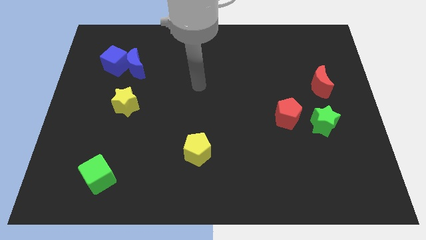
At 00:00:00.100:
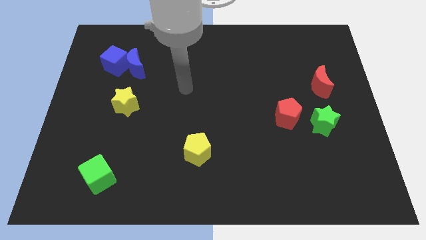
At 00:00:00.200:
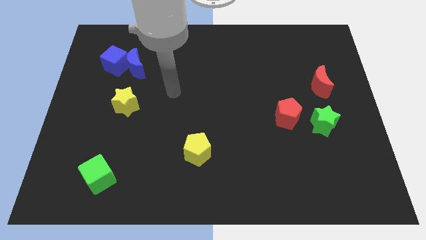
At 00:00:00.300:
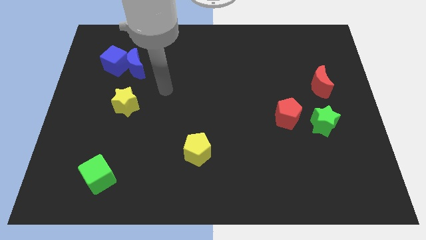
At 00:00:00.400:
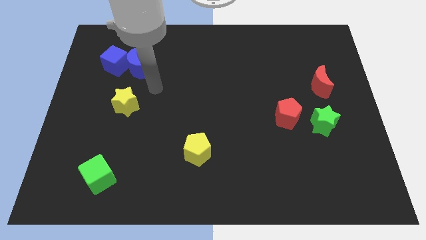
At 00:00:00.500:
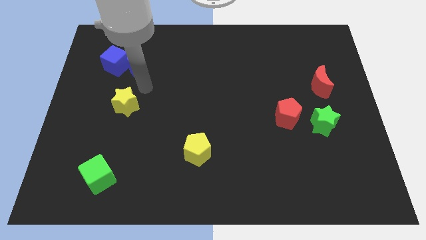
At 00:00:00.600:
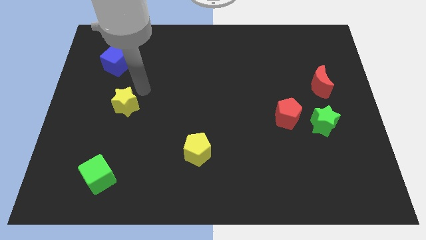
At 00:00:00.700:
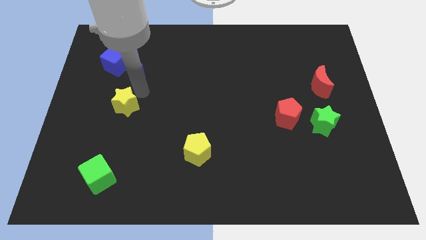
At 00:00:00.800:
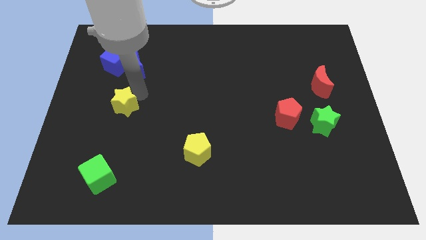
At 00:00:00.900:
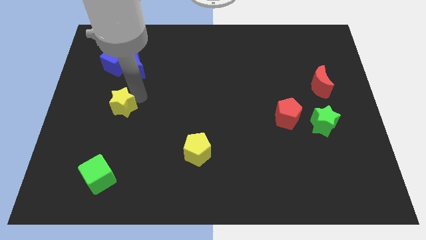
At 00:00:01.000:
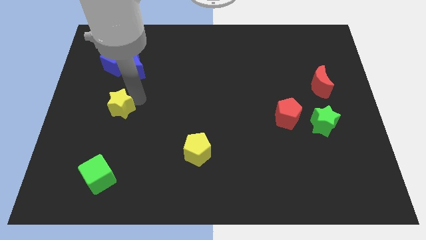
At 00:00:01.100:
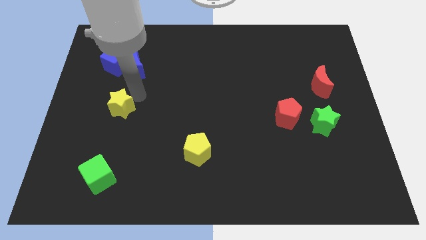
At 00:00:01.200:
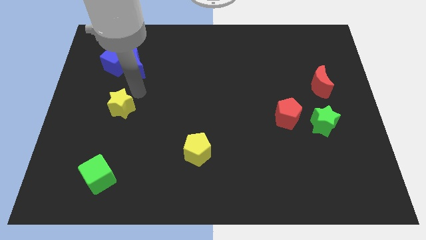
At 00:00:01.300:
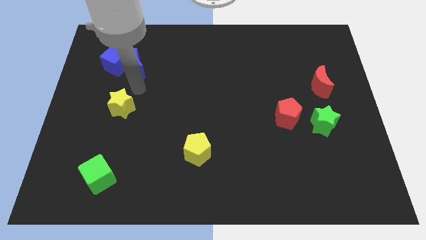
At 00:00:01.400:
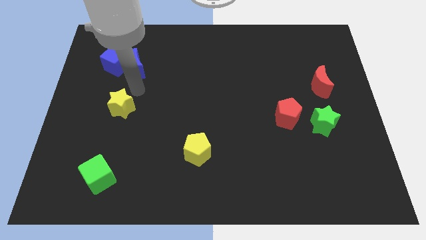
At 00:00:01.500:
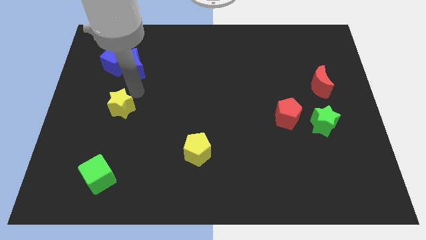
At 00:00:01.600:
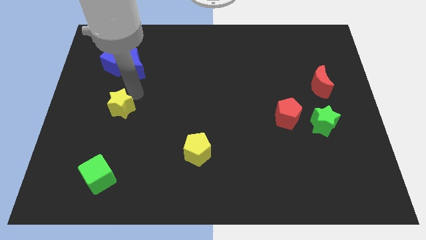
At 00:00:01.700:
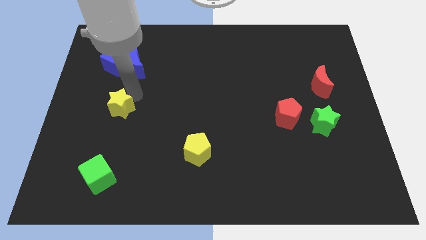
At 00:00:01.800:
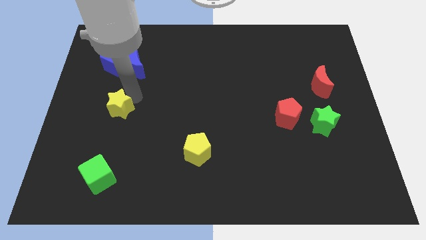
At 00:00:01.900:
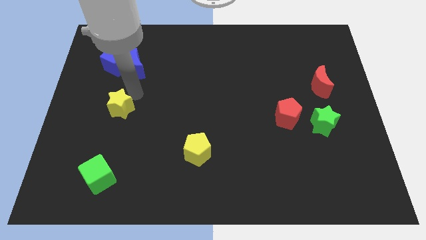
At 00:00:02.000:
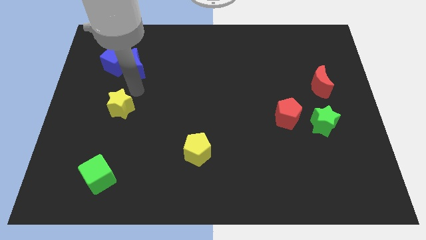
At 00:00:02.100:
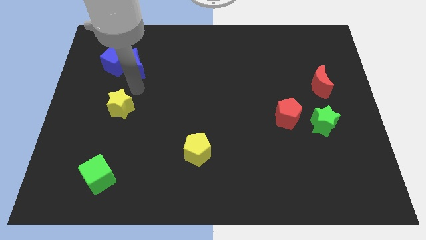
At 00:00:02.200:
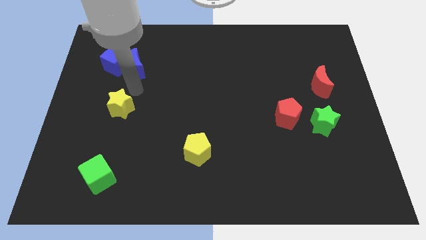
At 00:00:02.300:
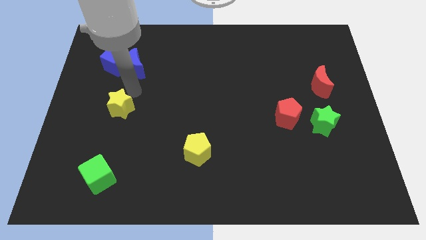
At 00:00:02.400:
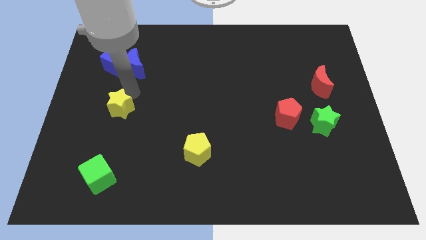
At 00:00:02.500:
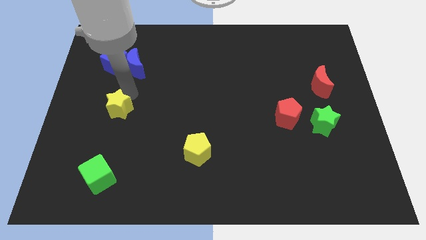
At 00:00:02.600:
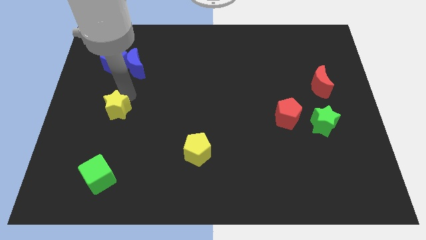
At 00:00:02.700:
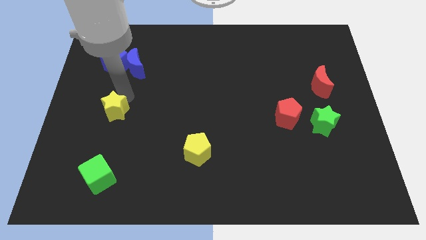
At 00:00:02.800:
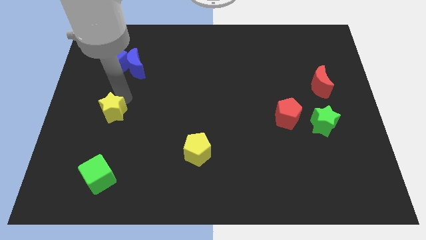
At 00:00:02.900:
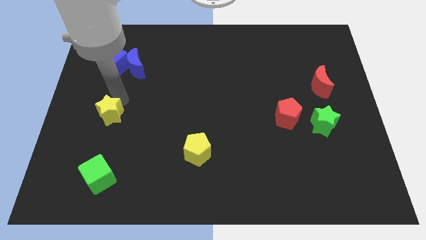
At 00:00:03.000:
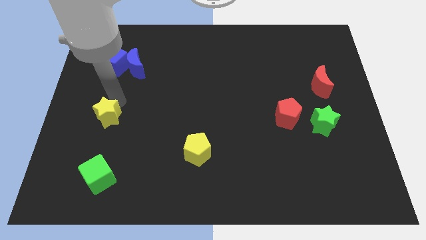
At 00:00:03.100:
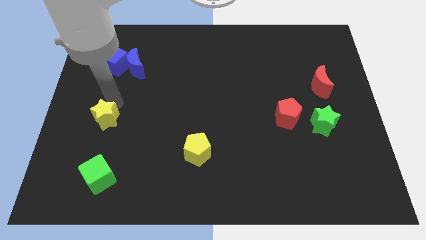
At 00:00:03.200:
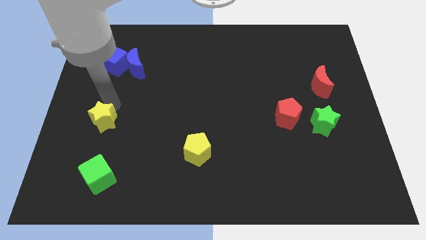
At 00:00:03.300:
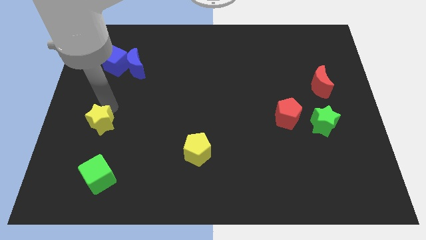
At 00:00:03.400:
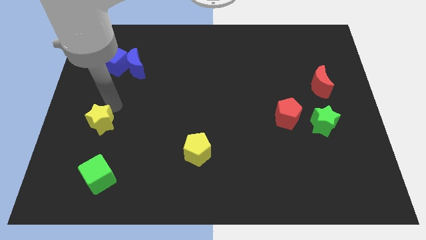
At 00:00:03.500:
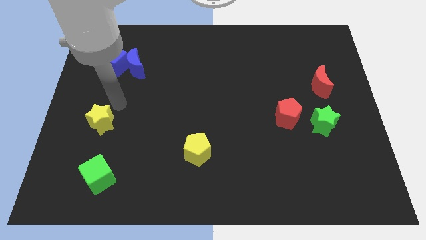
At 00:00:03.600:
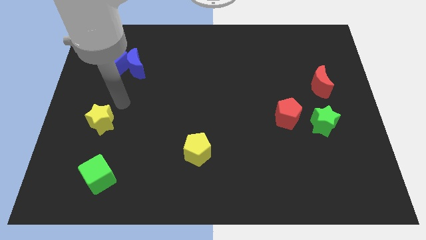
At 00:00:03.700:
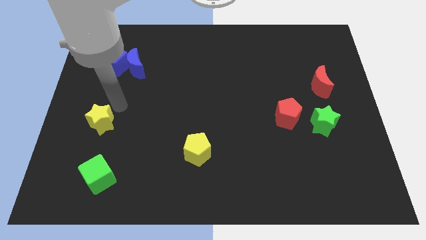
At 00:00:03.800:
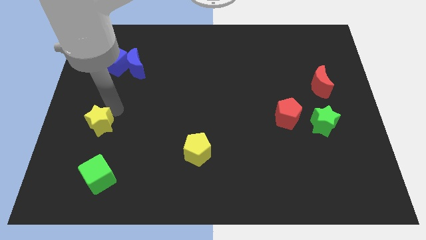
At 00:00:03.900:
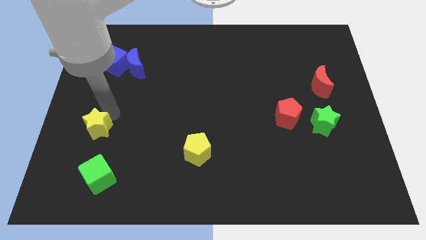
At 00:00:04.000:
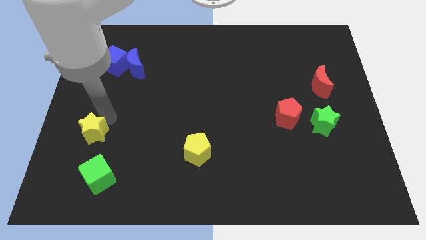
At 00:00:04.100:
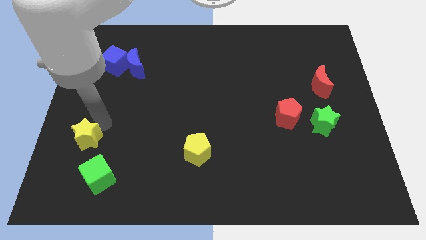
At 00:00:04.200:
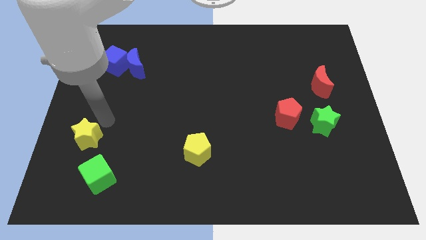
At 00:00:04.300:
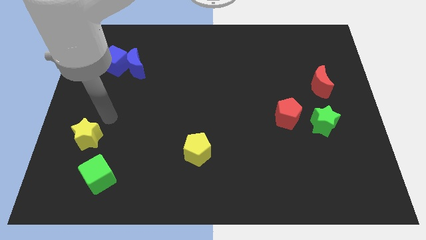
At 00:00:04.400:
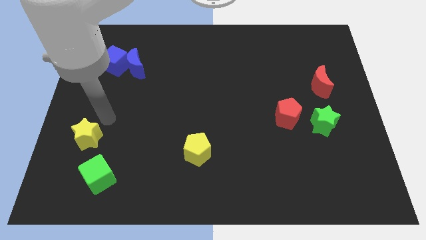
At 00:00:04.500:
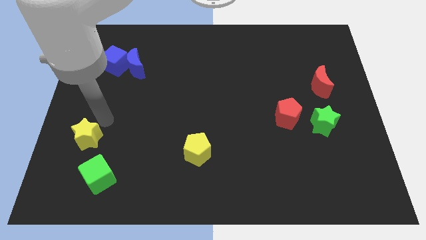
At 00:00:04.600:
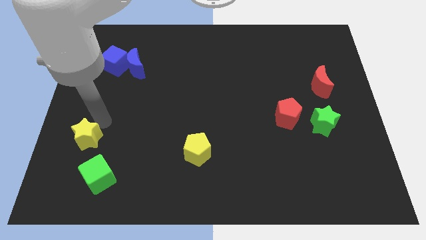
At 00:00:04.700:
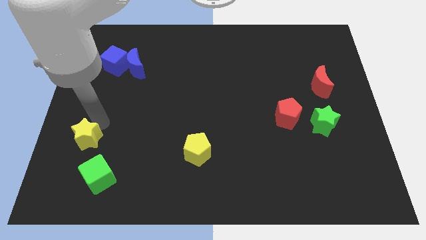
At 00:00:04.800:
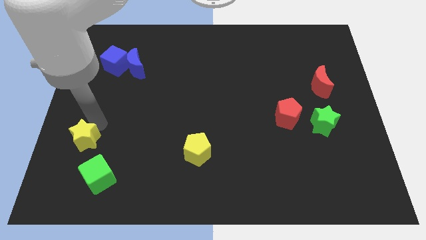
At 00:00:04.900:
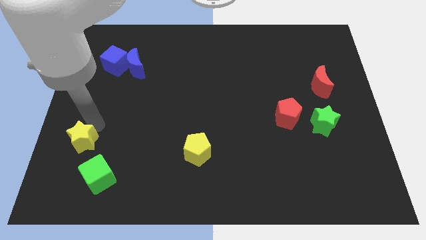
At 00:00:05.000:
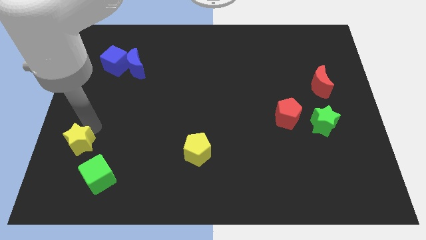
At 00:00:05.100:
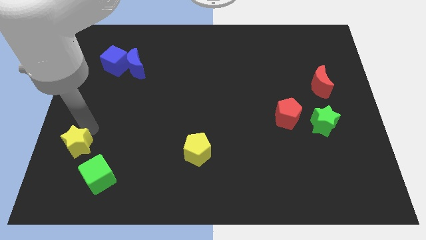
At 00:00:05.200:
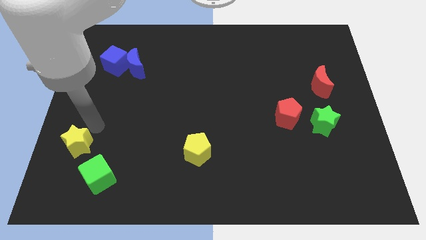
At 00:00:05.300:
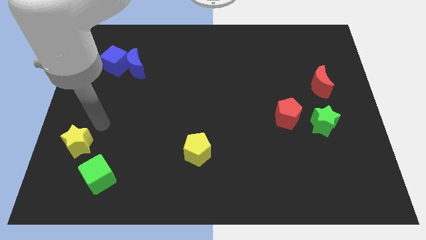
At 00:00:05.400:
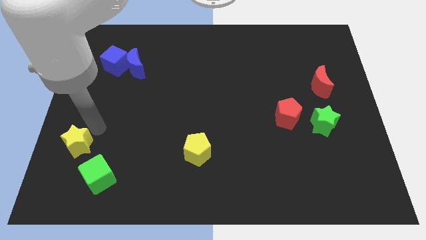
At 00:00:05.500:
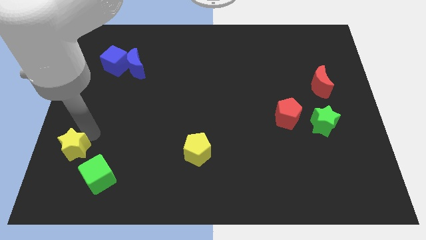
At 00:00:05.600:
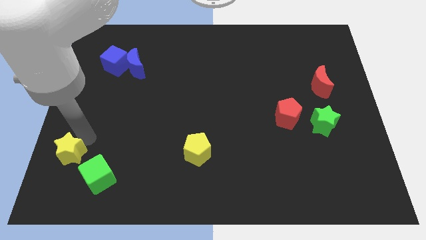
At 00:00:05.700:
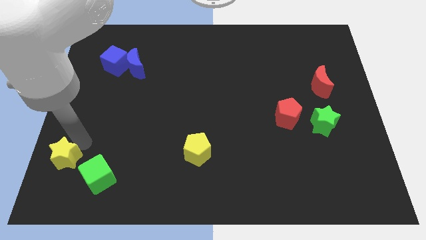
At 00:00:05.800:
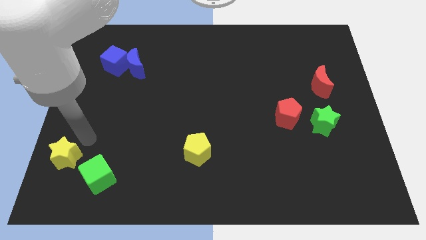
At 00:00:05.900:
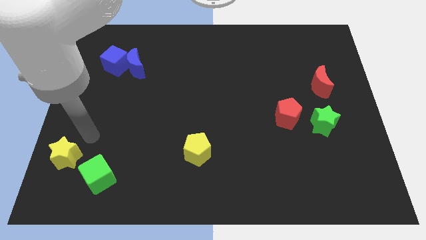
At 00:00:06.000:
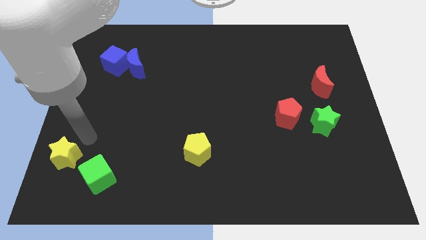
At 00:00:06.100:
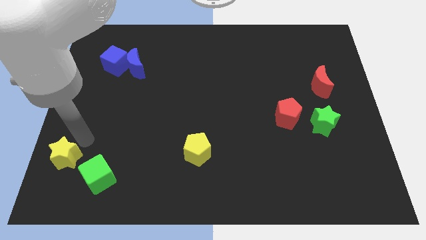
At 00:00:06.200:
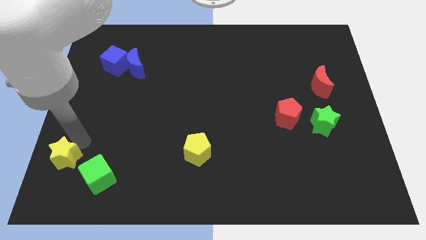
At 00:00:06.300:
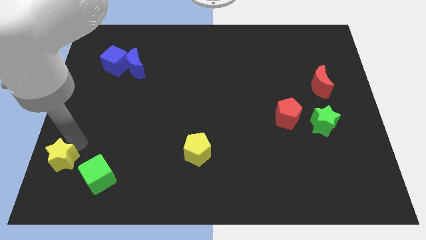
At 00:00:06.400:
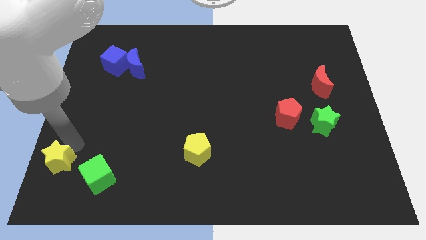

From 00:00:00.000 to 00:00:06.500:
put the yellow star to the bottom left corner

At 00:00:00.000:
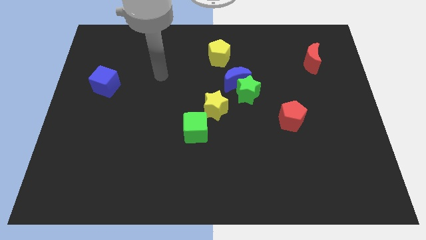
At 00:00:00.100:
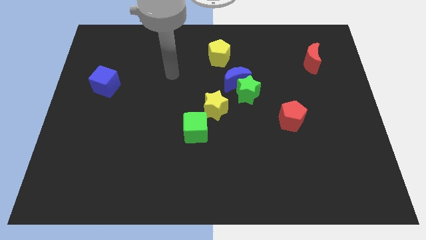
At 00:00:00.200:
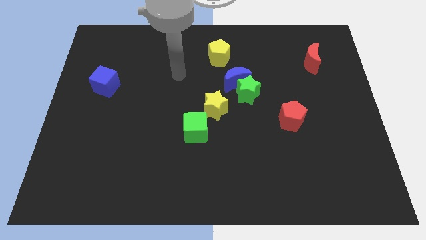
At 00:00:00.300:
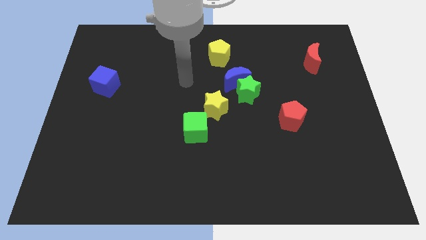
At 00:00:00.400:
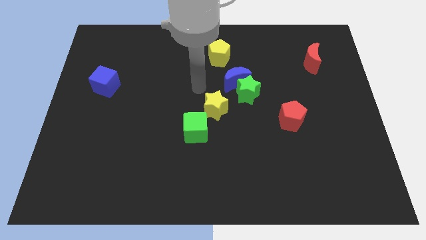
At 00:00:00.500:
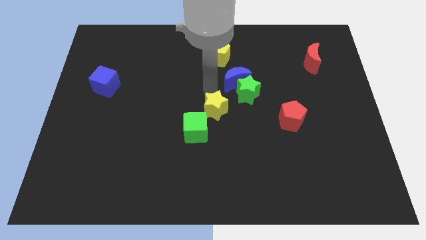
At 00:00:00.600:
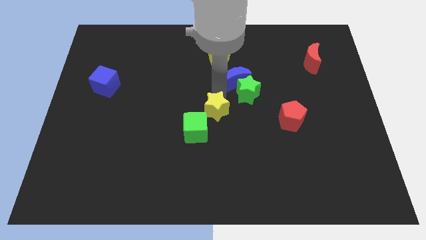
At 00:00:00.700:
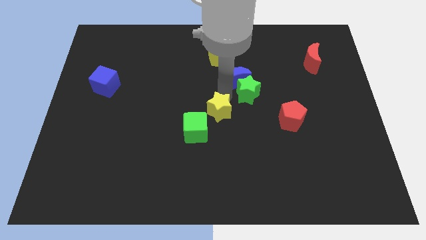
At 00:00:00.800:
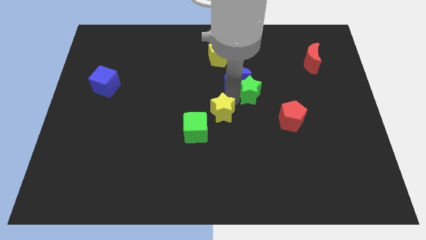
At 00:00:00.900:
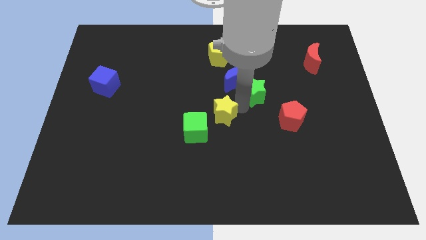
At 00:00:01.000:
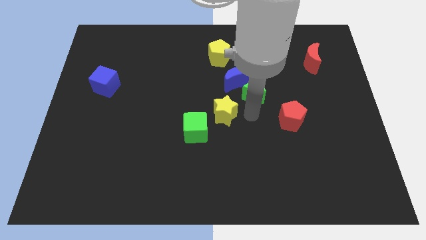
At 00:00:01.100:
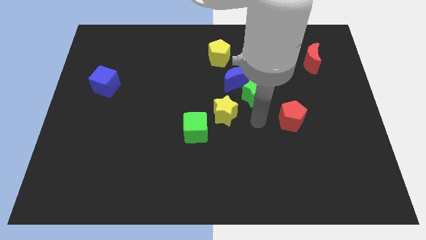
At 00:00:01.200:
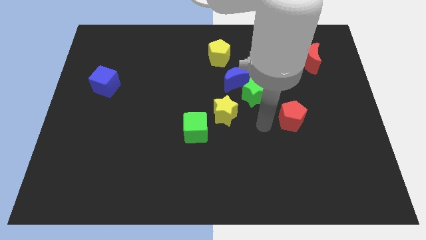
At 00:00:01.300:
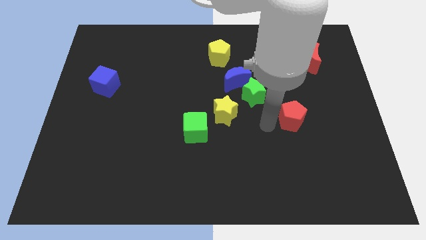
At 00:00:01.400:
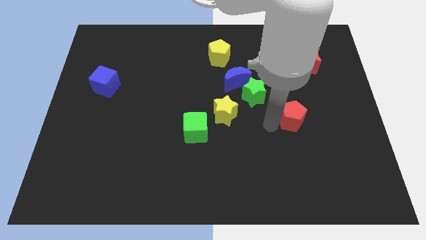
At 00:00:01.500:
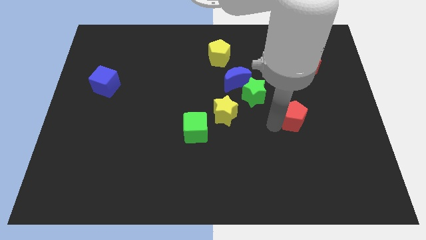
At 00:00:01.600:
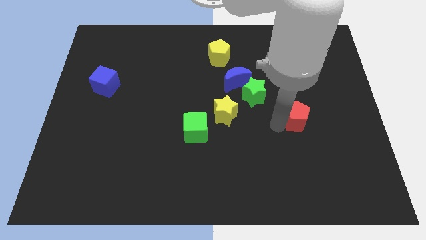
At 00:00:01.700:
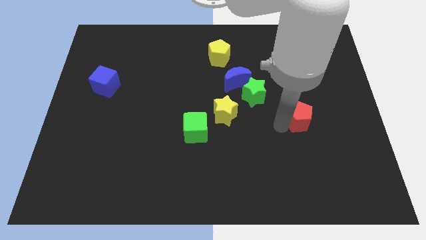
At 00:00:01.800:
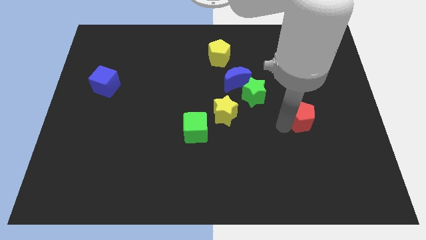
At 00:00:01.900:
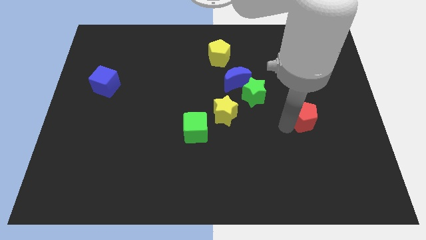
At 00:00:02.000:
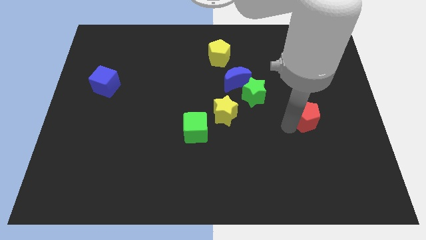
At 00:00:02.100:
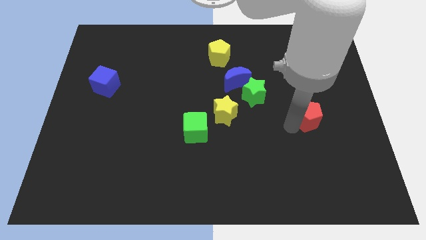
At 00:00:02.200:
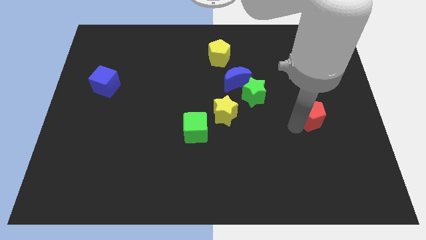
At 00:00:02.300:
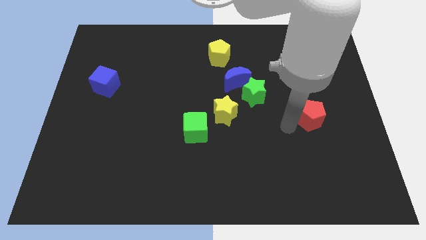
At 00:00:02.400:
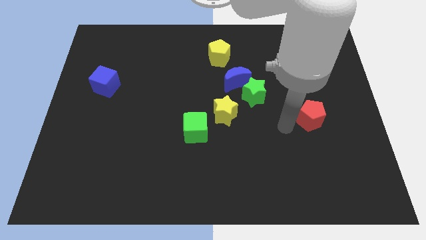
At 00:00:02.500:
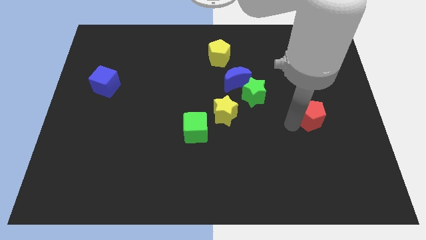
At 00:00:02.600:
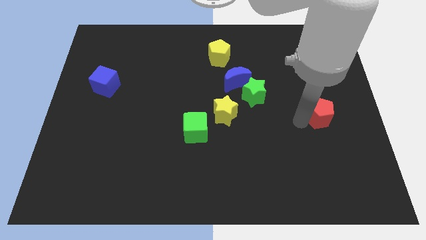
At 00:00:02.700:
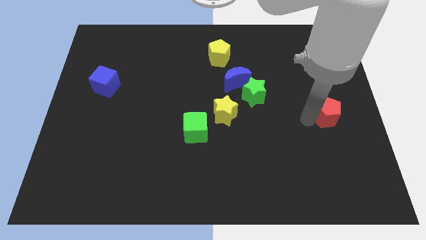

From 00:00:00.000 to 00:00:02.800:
put the red pentagon to the right side of the board
